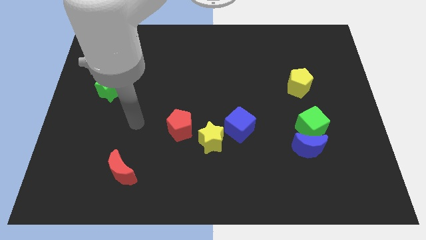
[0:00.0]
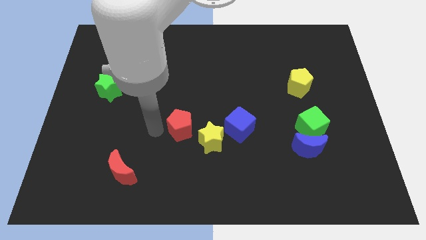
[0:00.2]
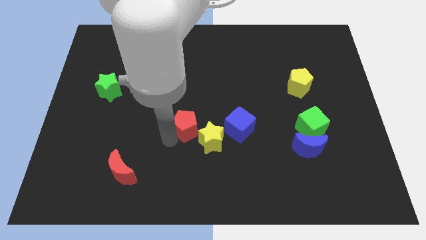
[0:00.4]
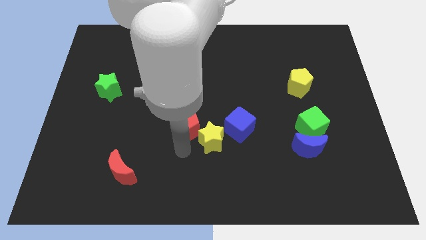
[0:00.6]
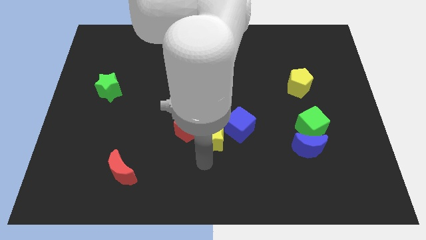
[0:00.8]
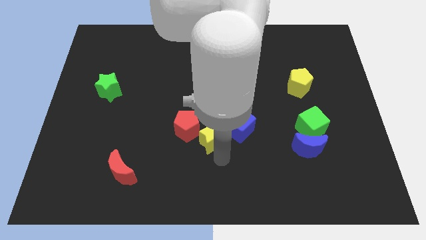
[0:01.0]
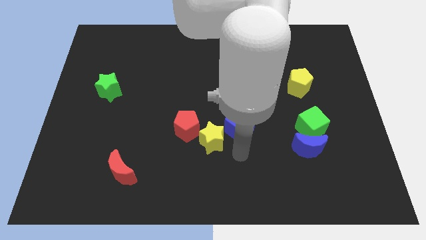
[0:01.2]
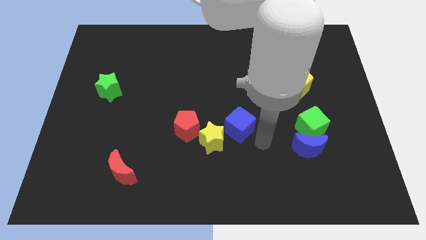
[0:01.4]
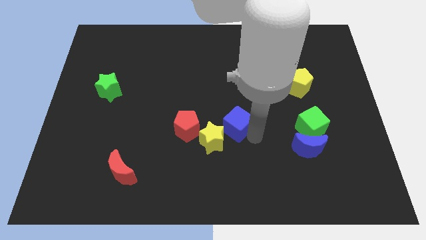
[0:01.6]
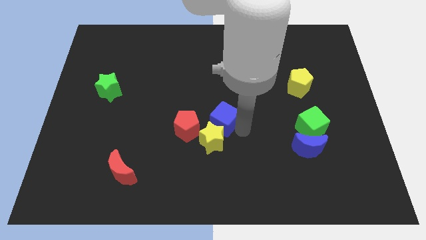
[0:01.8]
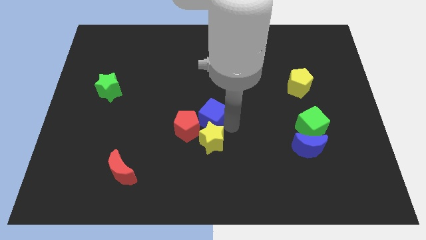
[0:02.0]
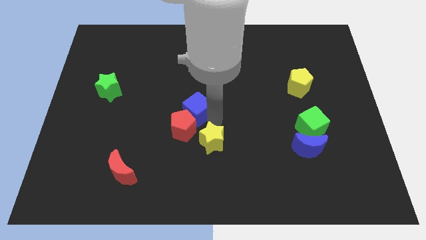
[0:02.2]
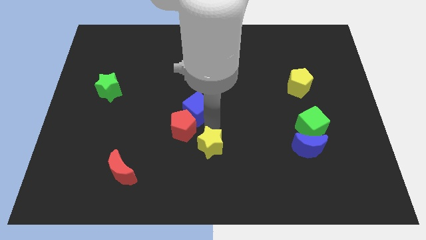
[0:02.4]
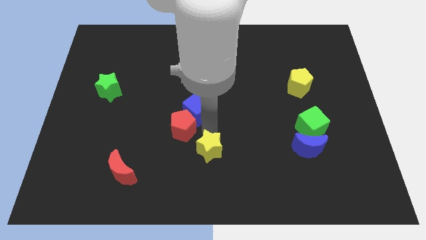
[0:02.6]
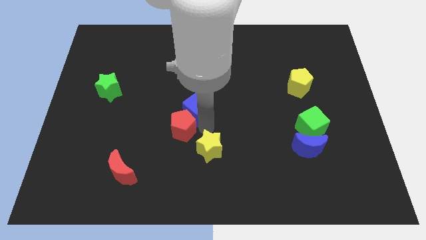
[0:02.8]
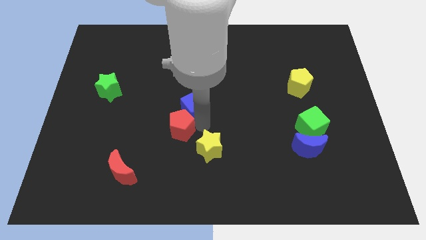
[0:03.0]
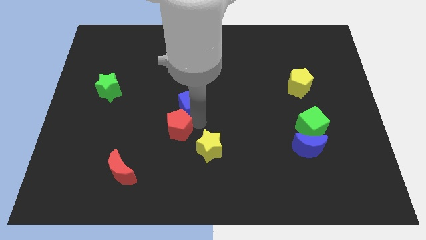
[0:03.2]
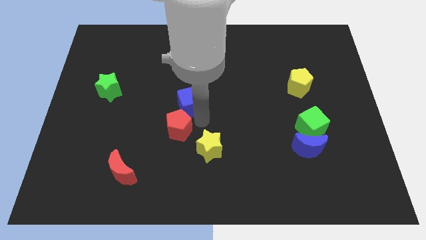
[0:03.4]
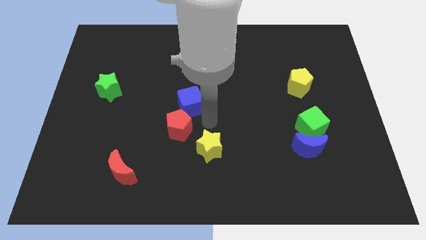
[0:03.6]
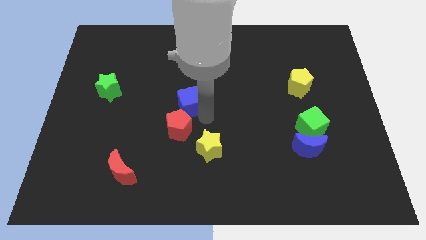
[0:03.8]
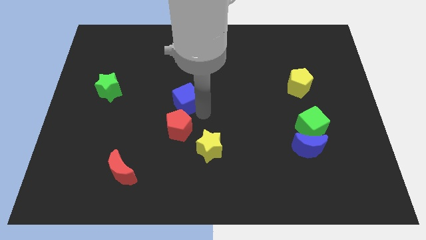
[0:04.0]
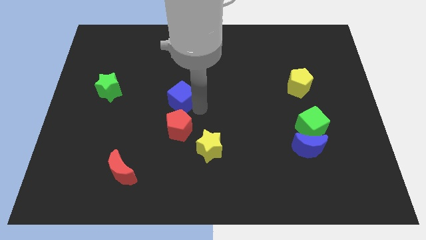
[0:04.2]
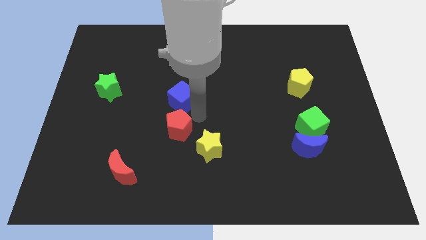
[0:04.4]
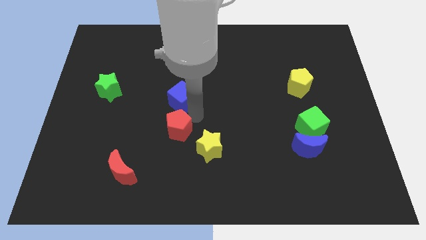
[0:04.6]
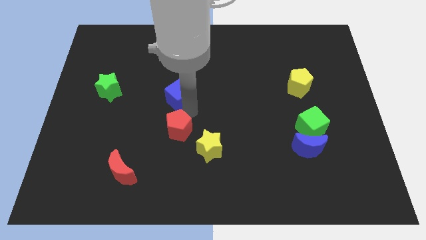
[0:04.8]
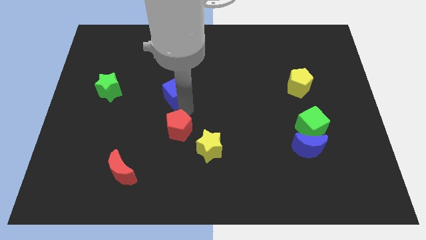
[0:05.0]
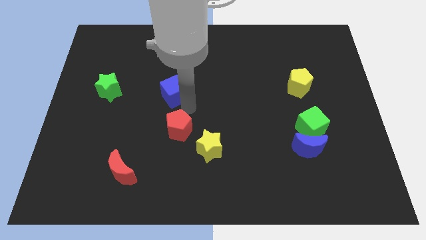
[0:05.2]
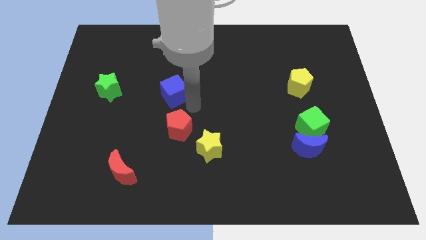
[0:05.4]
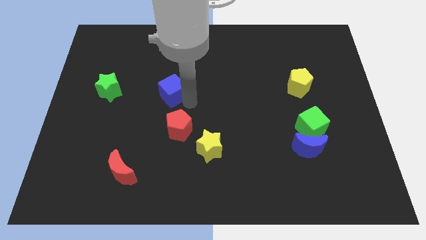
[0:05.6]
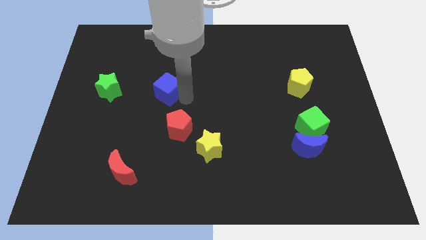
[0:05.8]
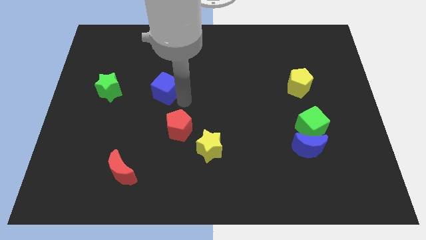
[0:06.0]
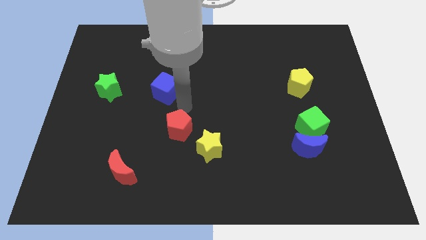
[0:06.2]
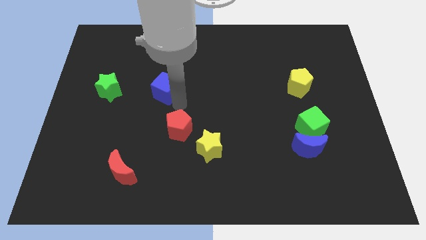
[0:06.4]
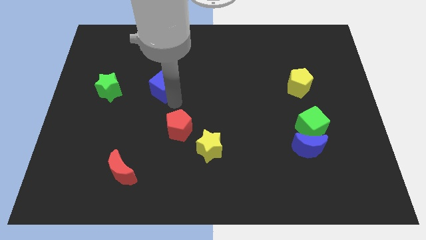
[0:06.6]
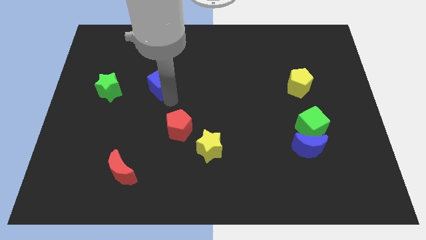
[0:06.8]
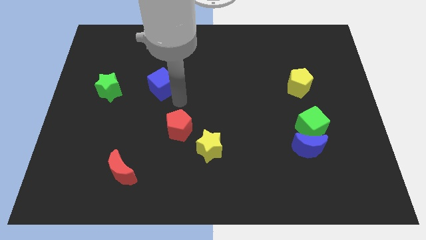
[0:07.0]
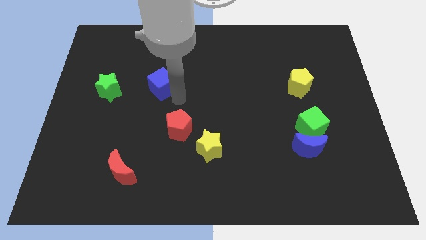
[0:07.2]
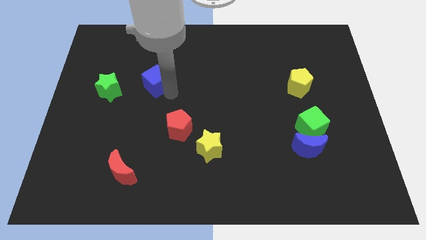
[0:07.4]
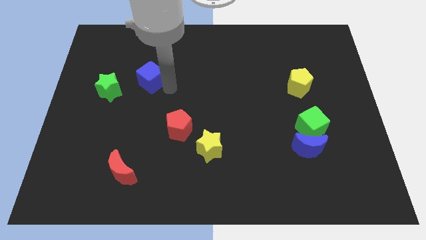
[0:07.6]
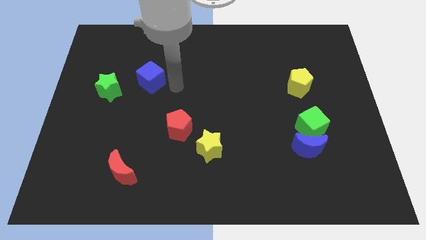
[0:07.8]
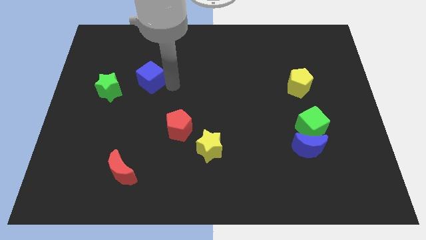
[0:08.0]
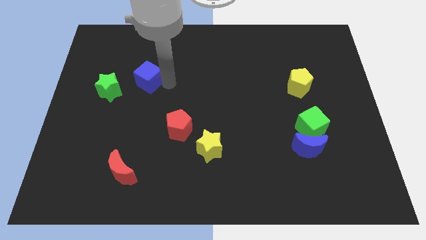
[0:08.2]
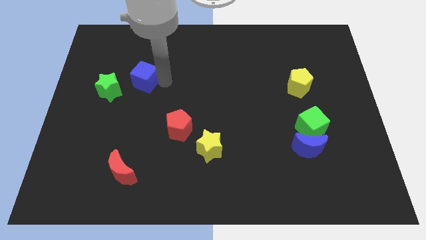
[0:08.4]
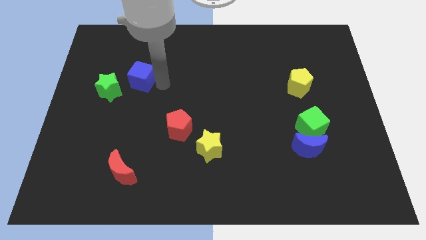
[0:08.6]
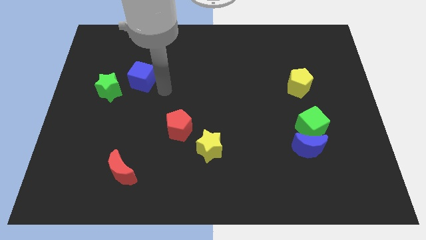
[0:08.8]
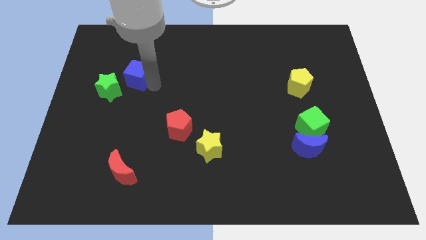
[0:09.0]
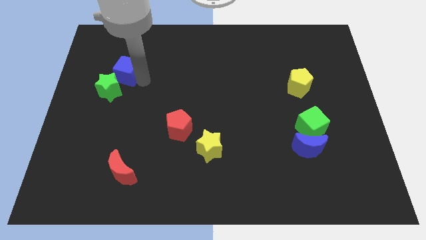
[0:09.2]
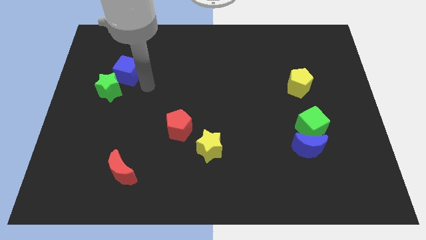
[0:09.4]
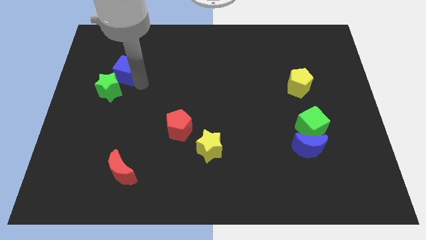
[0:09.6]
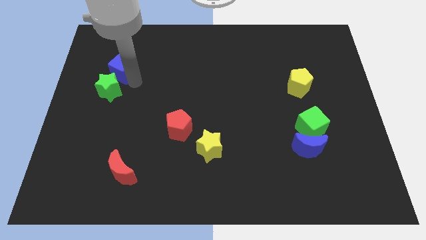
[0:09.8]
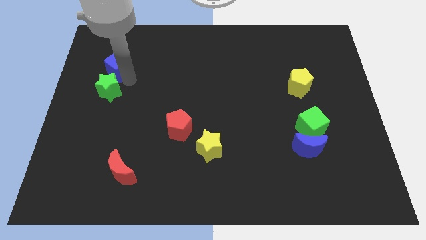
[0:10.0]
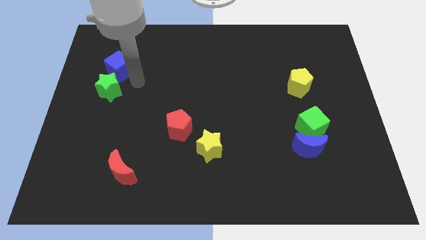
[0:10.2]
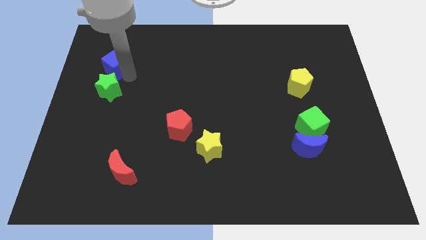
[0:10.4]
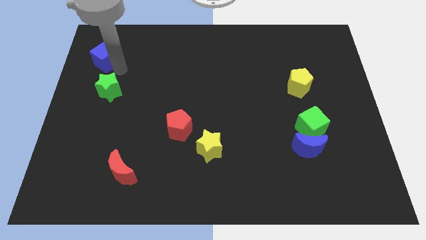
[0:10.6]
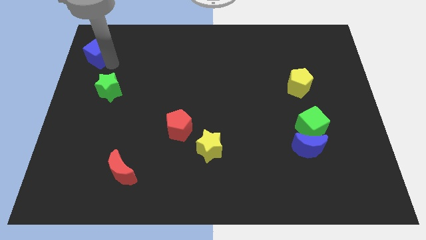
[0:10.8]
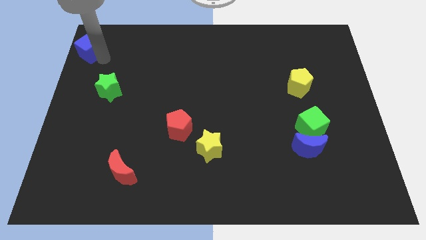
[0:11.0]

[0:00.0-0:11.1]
put the blue cube to the top left of the board
